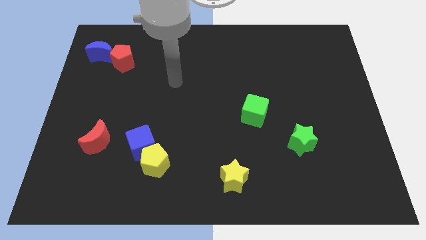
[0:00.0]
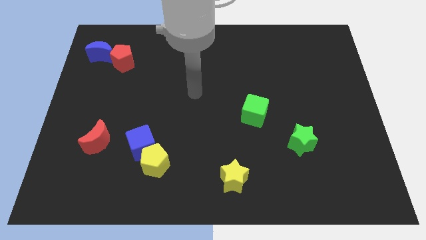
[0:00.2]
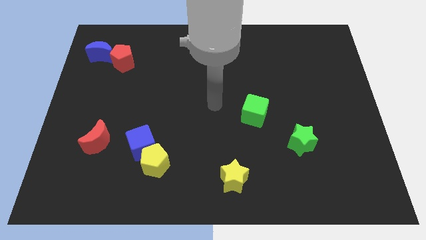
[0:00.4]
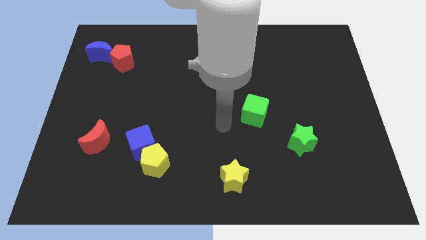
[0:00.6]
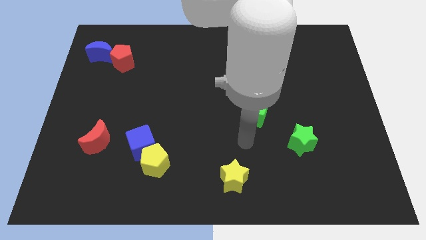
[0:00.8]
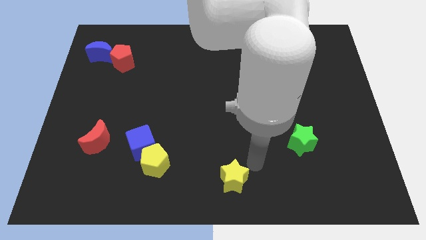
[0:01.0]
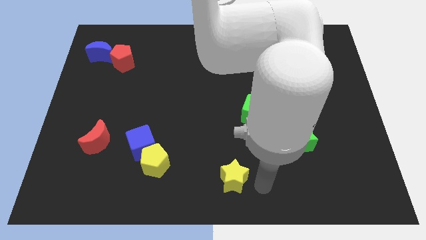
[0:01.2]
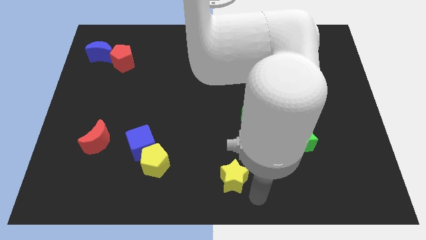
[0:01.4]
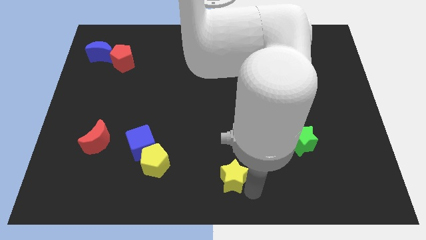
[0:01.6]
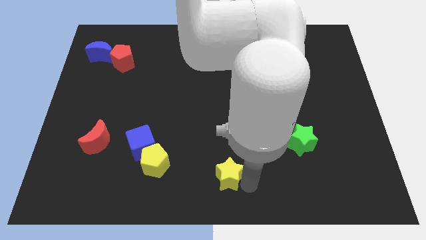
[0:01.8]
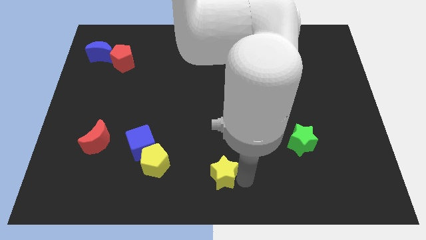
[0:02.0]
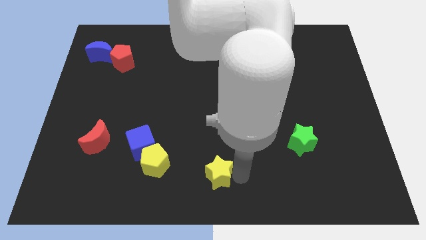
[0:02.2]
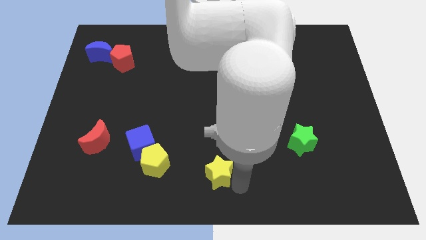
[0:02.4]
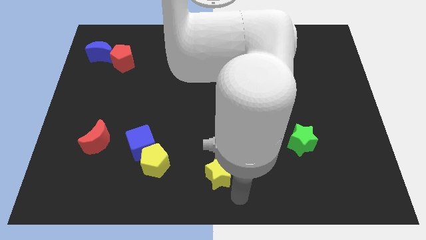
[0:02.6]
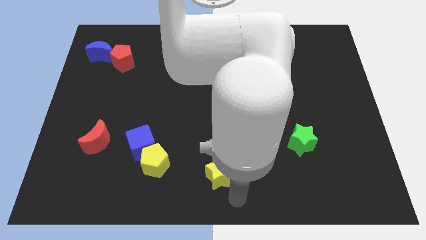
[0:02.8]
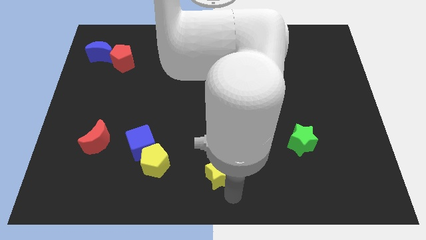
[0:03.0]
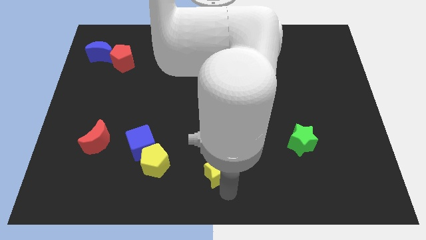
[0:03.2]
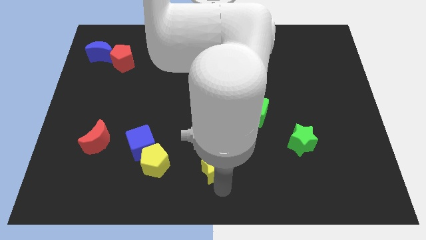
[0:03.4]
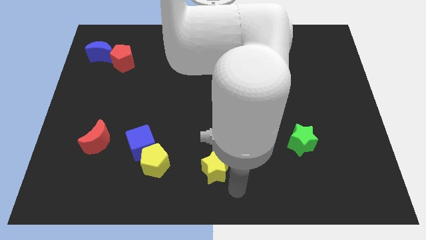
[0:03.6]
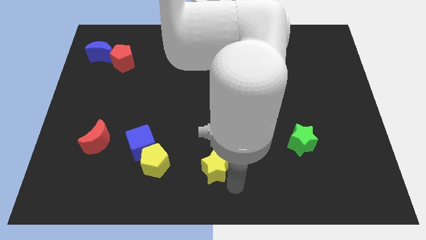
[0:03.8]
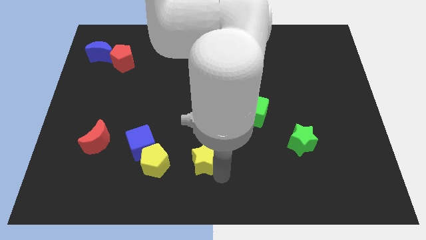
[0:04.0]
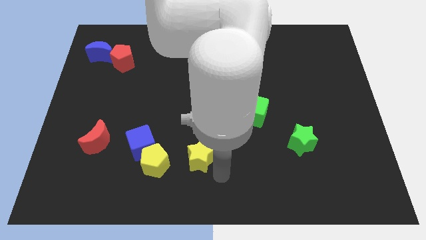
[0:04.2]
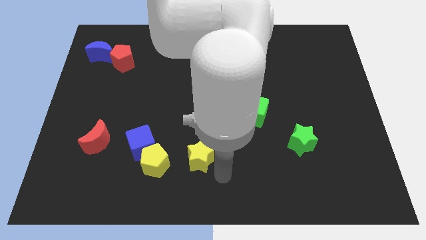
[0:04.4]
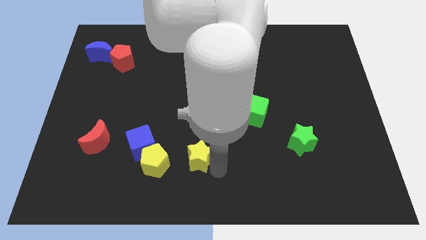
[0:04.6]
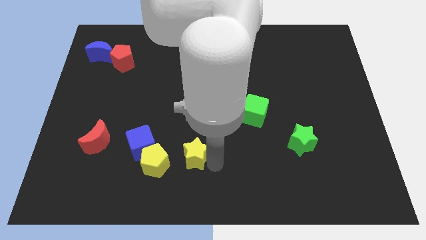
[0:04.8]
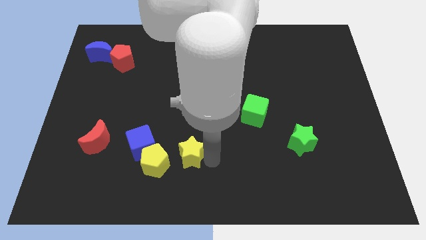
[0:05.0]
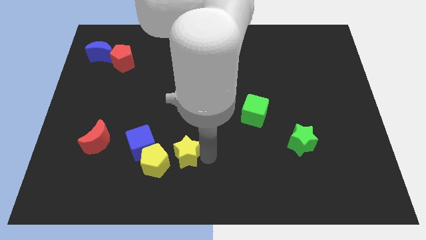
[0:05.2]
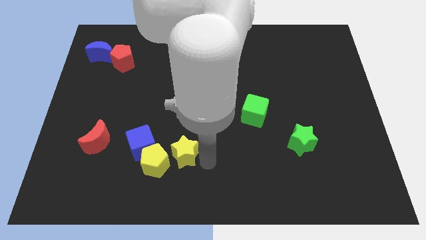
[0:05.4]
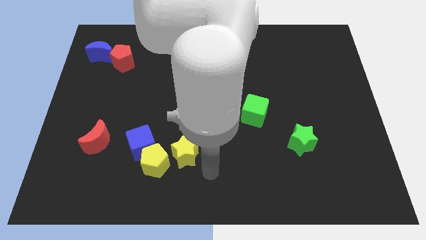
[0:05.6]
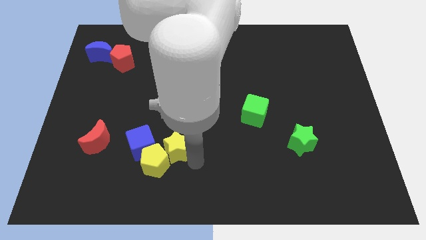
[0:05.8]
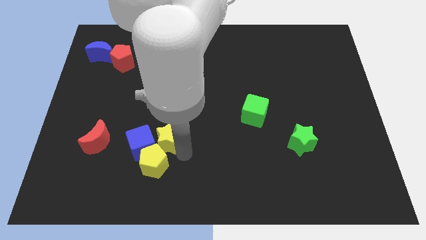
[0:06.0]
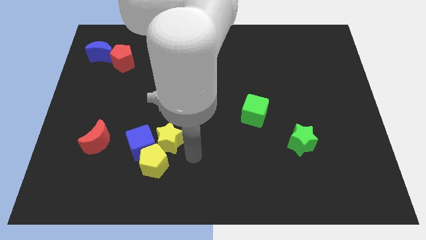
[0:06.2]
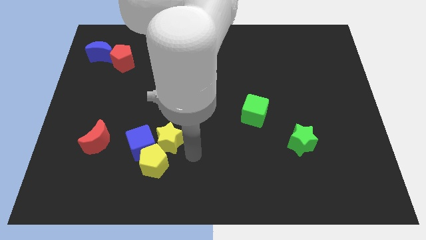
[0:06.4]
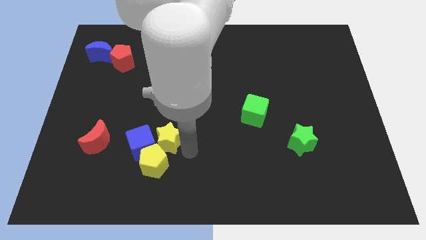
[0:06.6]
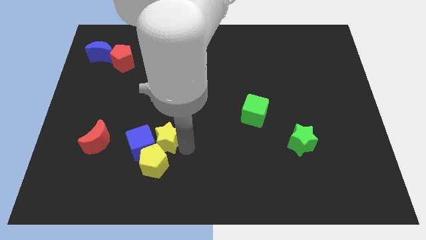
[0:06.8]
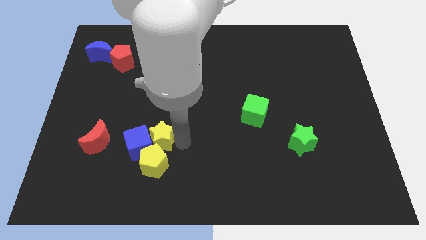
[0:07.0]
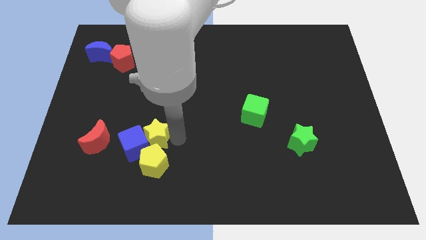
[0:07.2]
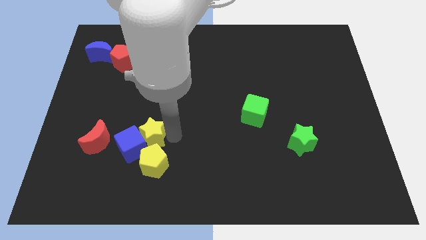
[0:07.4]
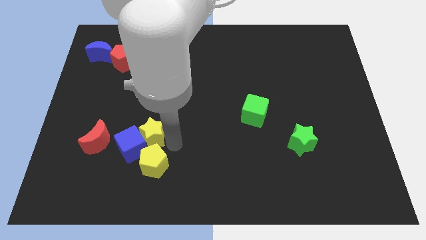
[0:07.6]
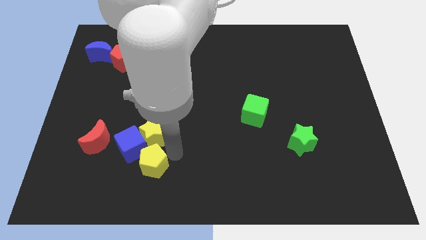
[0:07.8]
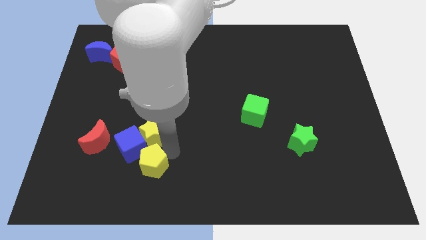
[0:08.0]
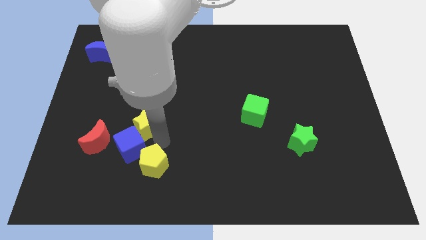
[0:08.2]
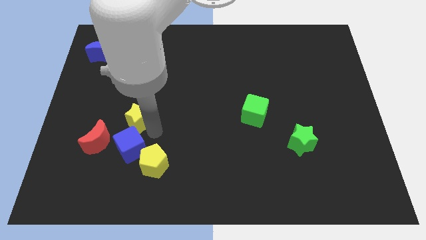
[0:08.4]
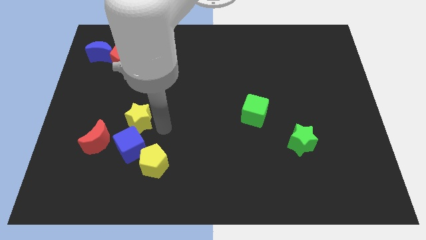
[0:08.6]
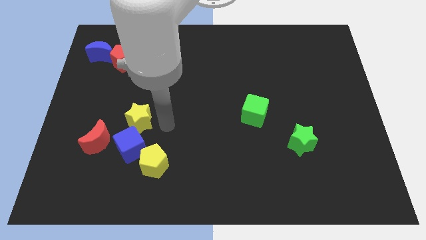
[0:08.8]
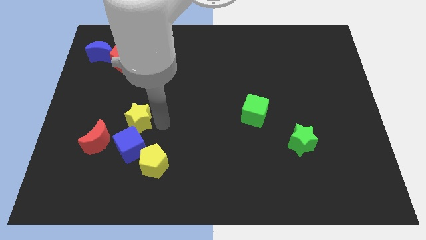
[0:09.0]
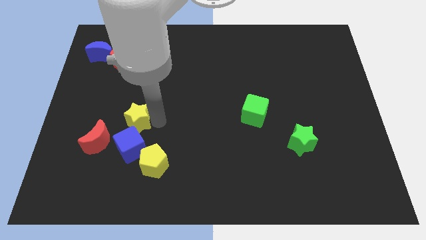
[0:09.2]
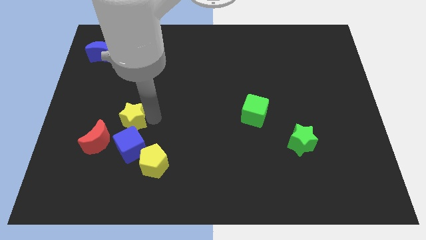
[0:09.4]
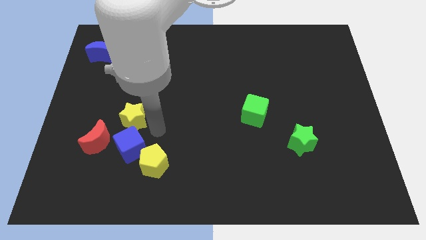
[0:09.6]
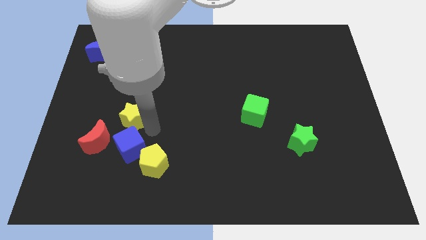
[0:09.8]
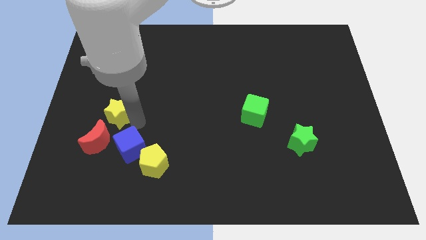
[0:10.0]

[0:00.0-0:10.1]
put the yellow star above the red moon

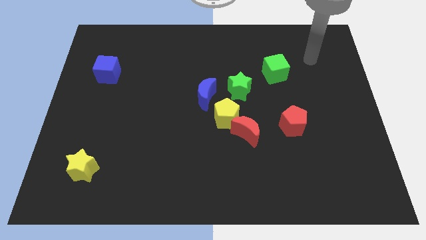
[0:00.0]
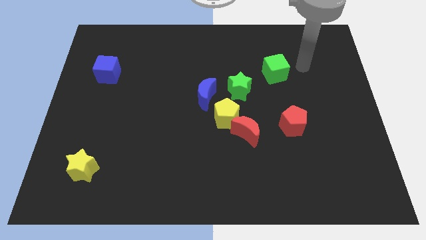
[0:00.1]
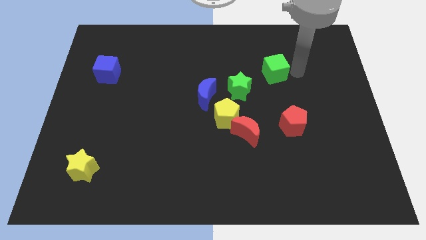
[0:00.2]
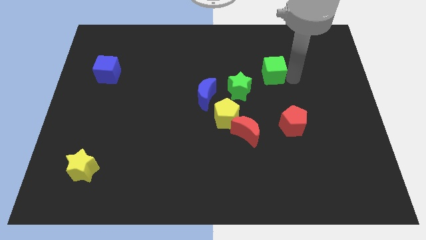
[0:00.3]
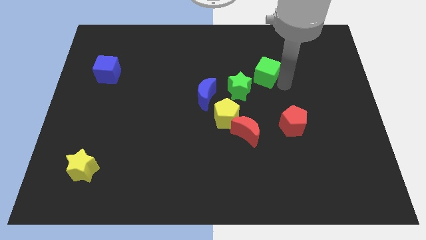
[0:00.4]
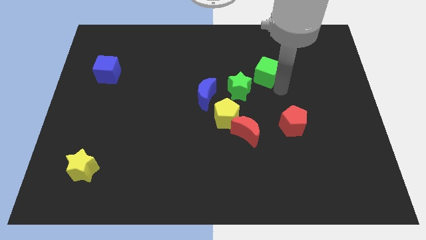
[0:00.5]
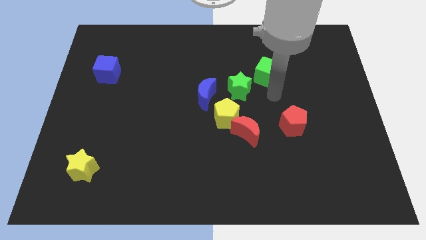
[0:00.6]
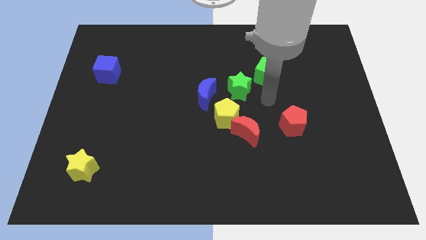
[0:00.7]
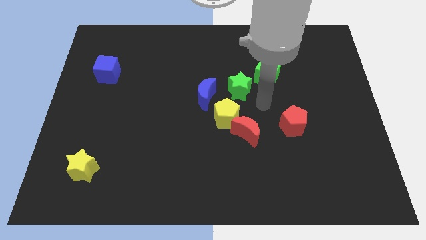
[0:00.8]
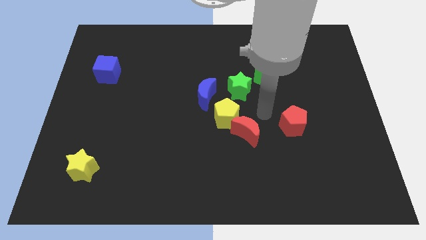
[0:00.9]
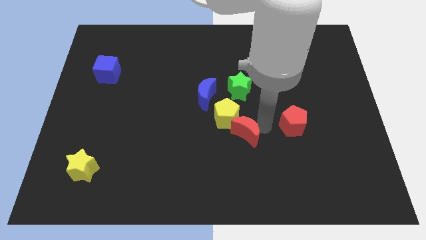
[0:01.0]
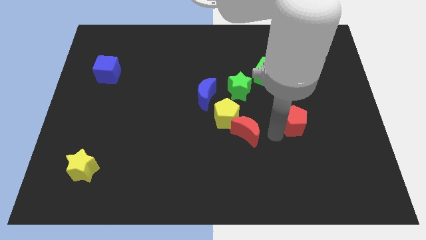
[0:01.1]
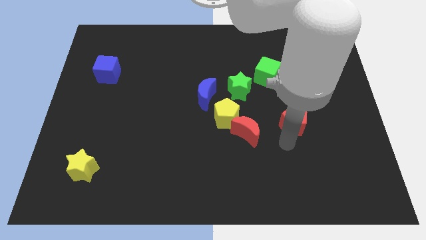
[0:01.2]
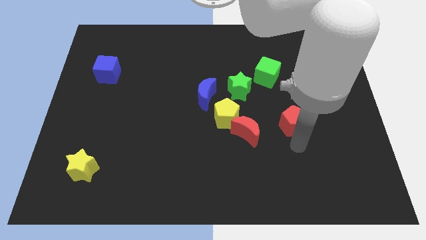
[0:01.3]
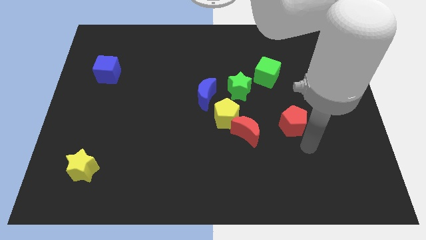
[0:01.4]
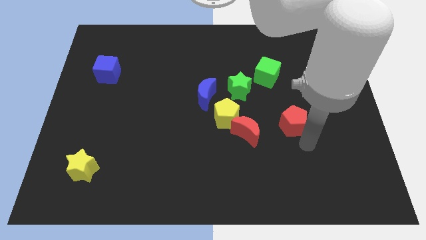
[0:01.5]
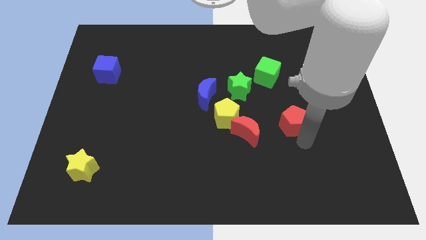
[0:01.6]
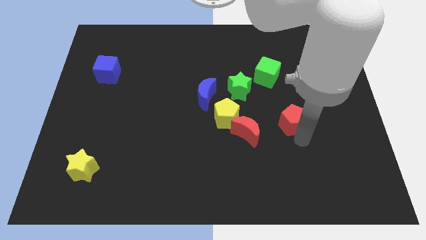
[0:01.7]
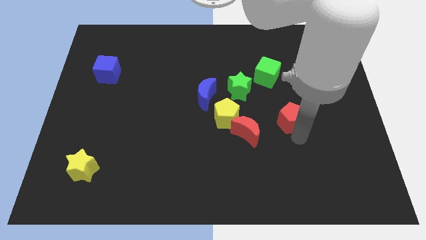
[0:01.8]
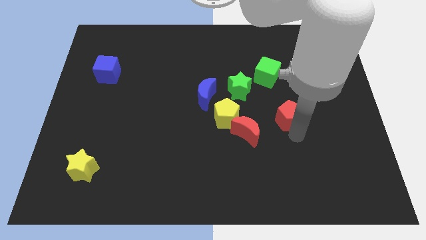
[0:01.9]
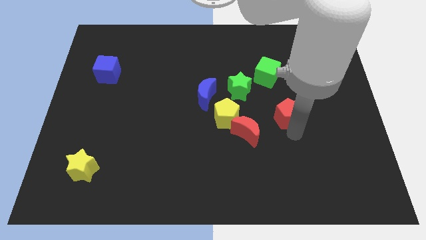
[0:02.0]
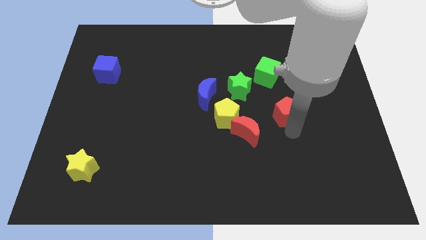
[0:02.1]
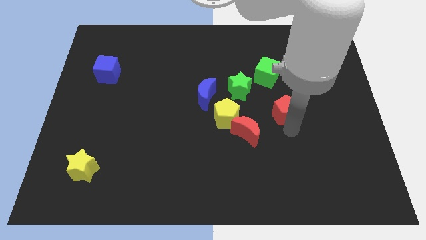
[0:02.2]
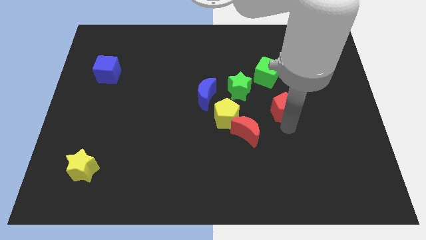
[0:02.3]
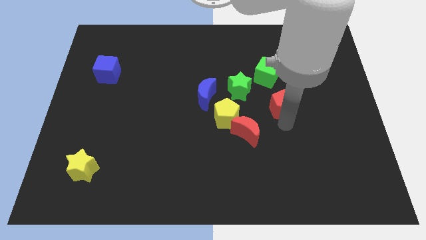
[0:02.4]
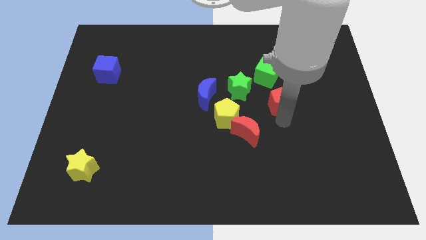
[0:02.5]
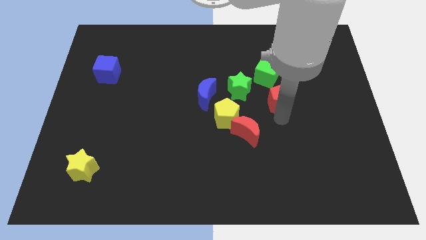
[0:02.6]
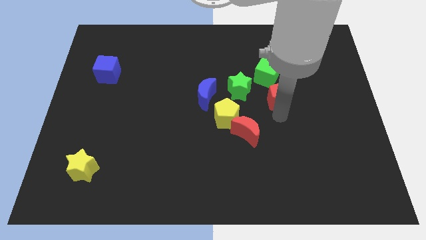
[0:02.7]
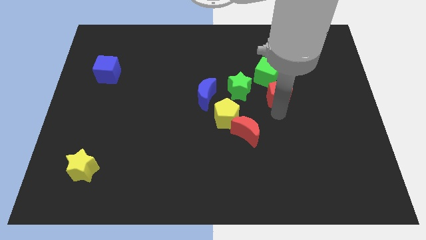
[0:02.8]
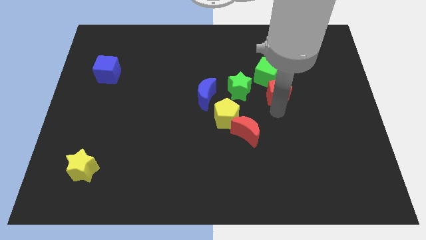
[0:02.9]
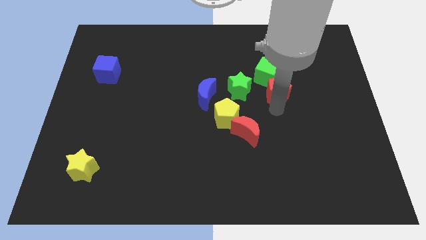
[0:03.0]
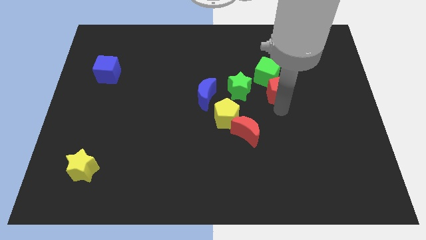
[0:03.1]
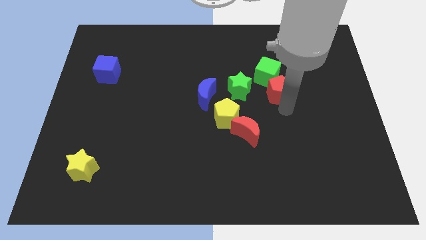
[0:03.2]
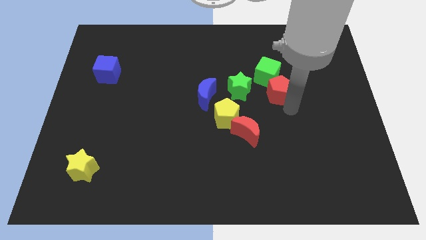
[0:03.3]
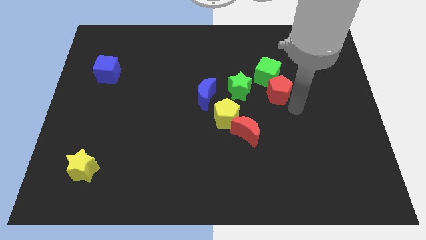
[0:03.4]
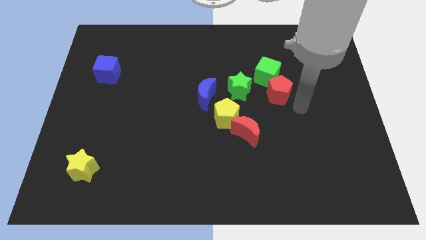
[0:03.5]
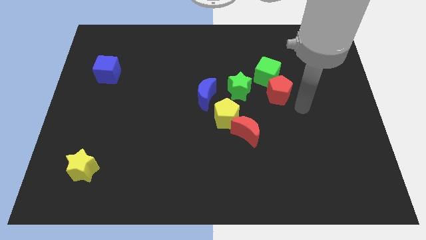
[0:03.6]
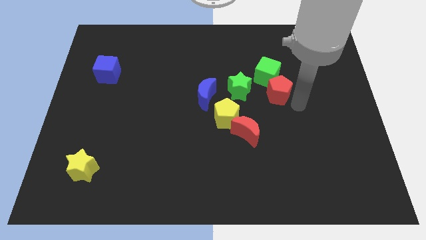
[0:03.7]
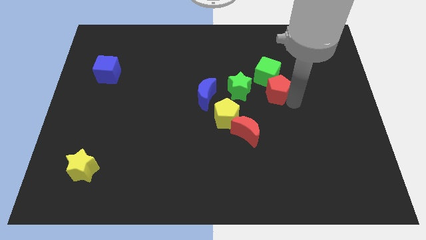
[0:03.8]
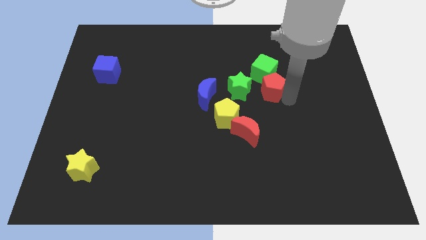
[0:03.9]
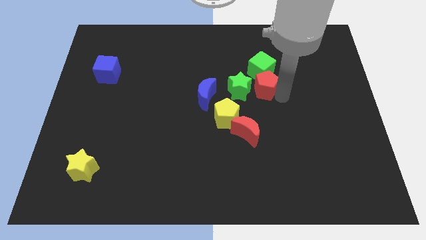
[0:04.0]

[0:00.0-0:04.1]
put the red pentagon to the top right of the green star
